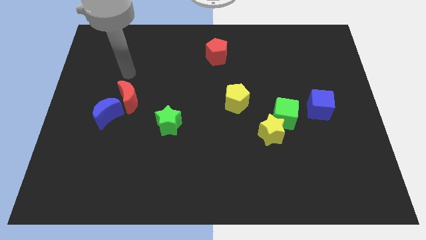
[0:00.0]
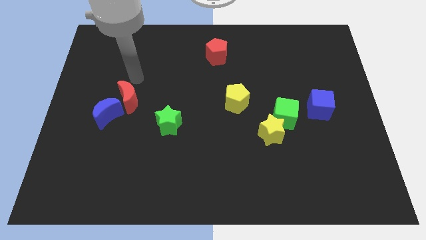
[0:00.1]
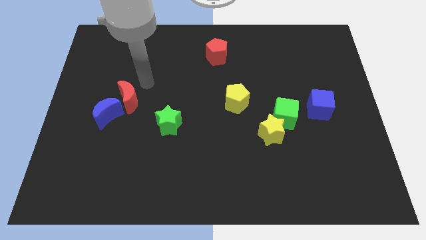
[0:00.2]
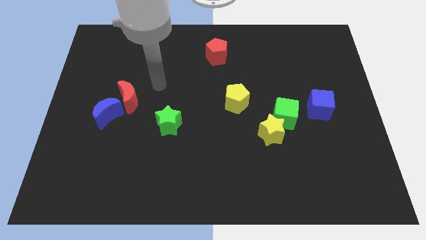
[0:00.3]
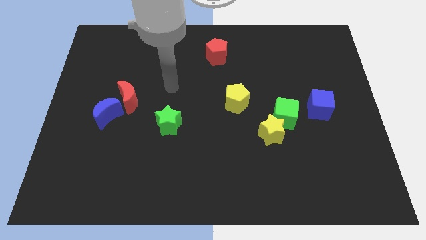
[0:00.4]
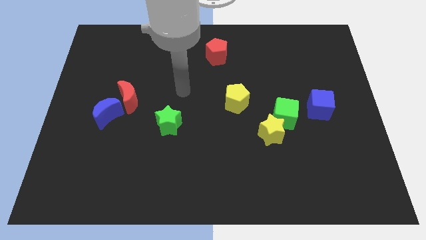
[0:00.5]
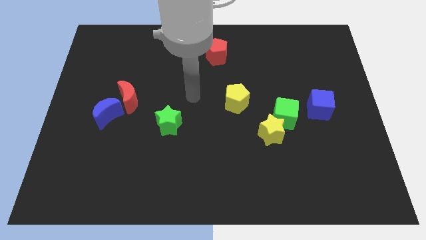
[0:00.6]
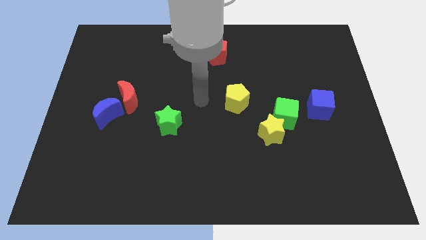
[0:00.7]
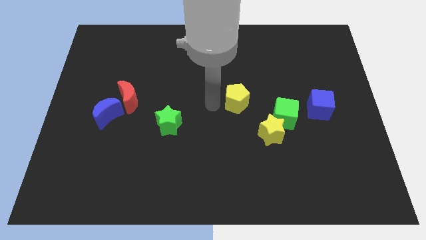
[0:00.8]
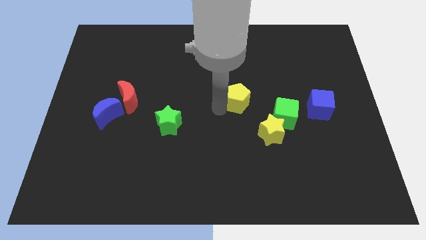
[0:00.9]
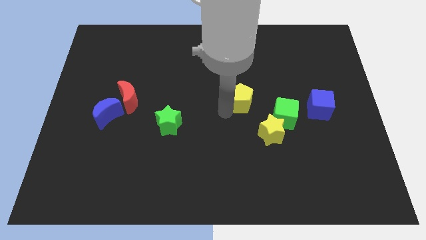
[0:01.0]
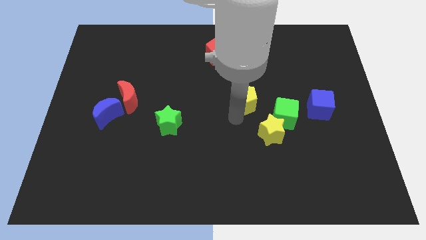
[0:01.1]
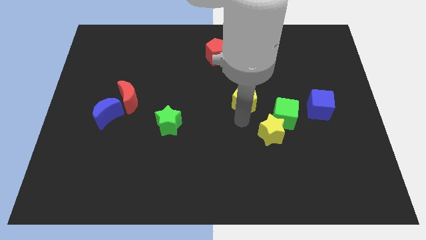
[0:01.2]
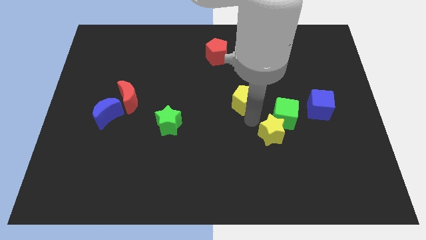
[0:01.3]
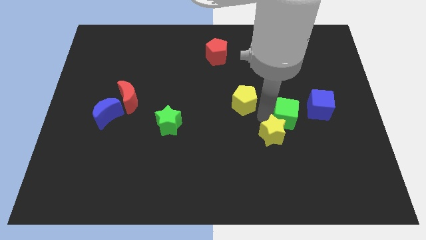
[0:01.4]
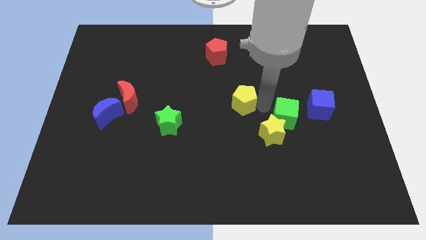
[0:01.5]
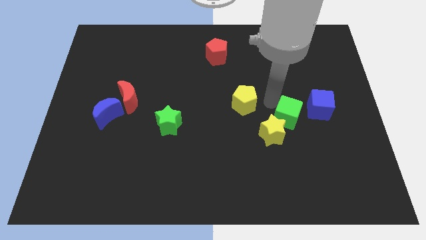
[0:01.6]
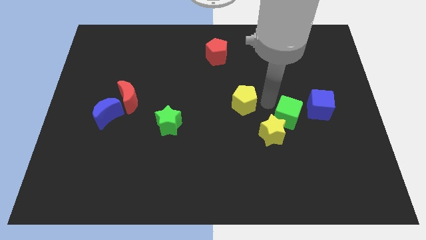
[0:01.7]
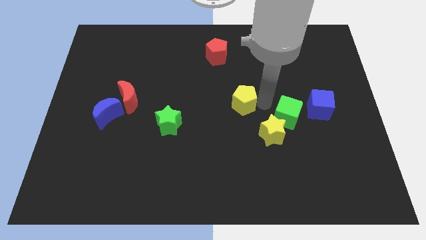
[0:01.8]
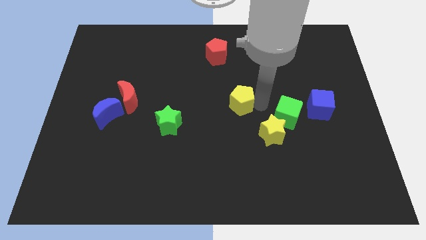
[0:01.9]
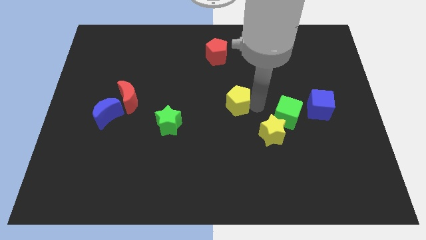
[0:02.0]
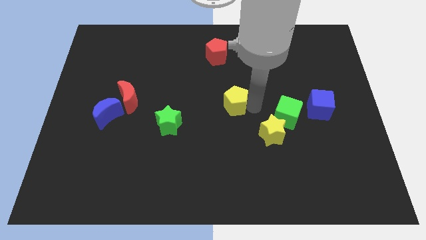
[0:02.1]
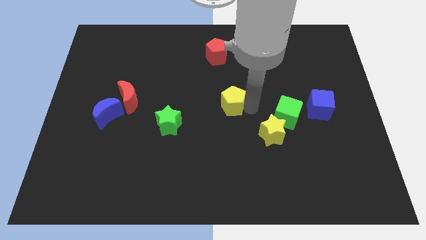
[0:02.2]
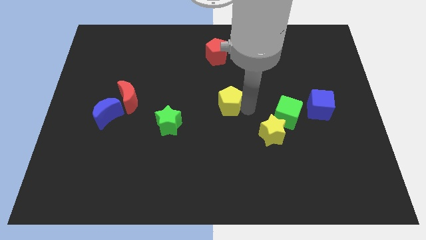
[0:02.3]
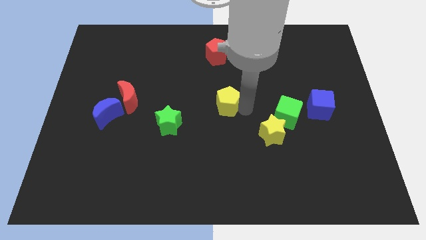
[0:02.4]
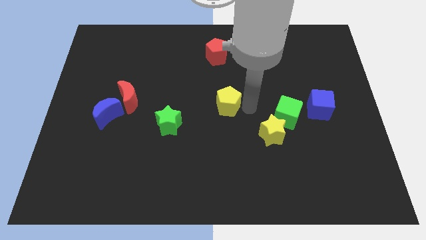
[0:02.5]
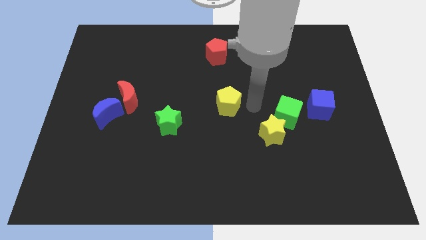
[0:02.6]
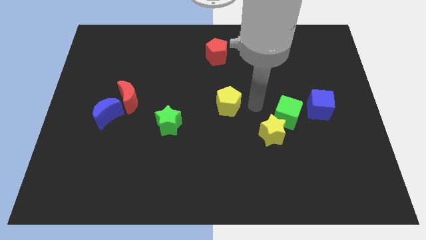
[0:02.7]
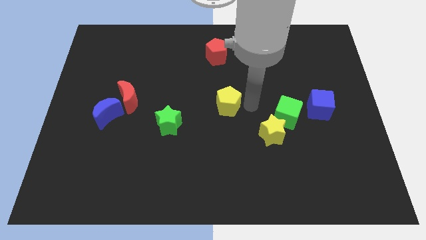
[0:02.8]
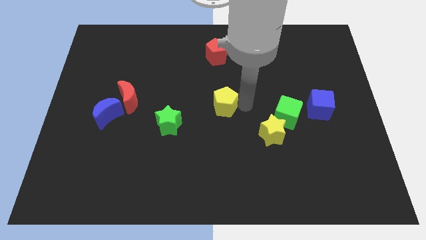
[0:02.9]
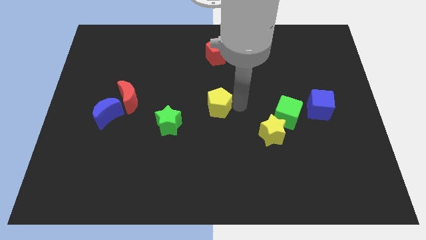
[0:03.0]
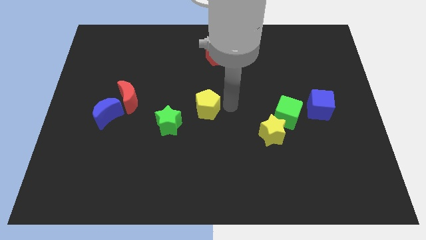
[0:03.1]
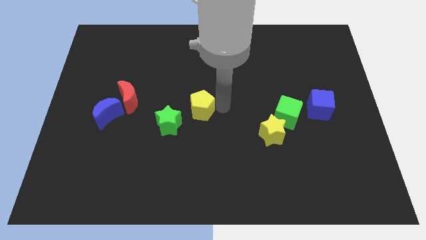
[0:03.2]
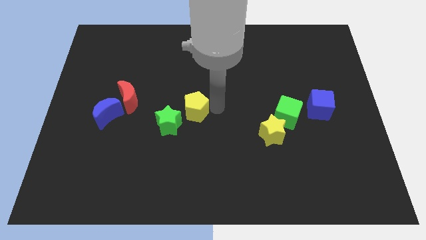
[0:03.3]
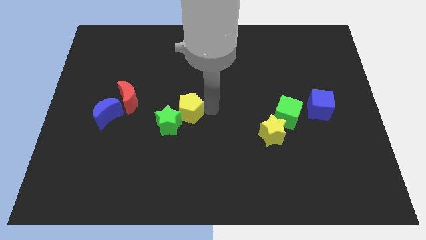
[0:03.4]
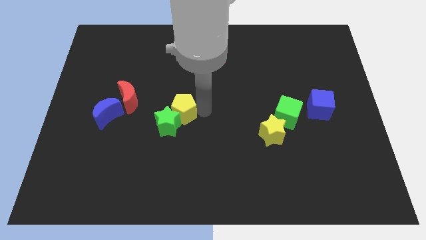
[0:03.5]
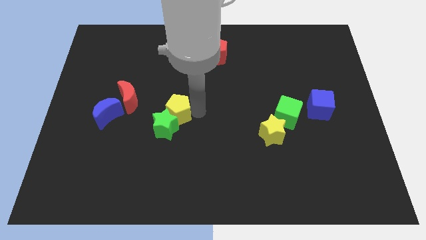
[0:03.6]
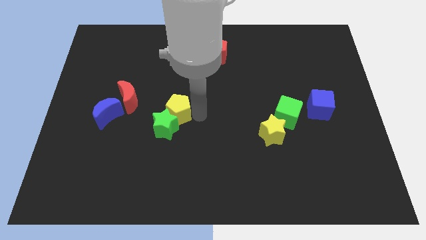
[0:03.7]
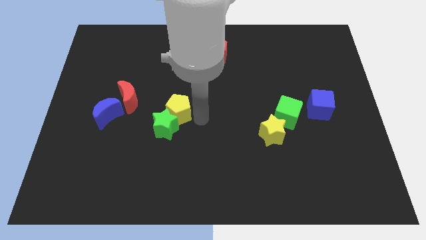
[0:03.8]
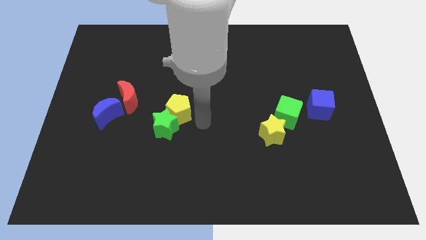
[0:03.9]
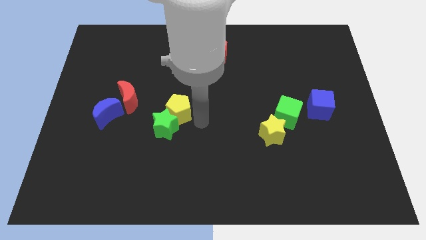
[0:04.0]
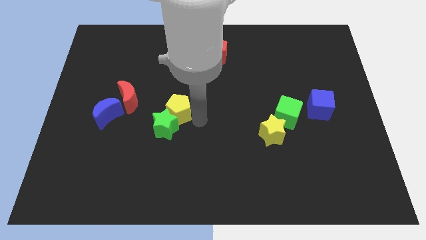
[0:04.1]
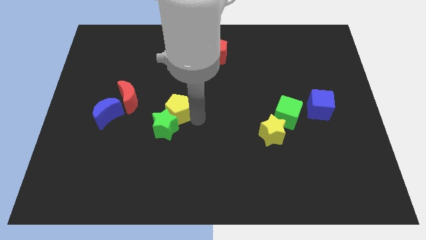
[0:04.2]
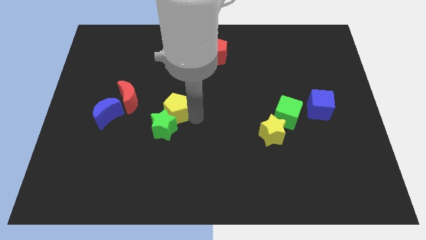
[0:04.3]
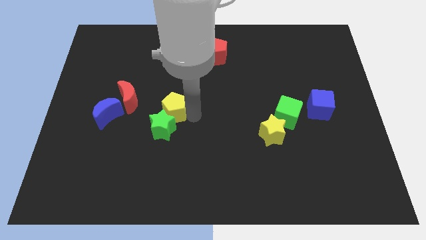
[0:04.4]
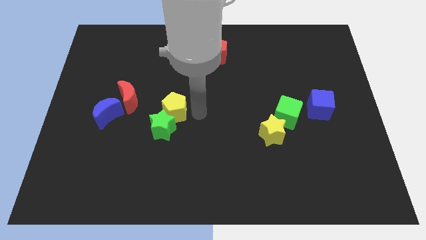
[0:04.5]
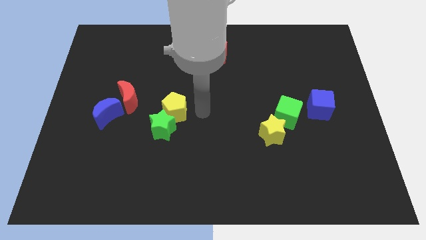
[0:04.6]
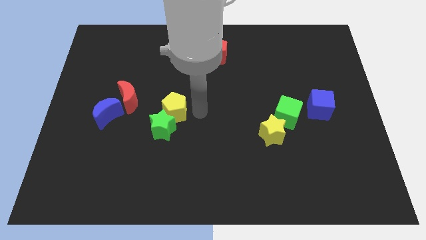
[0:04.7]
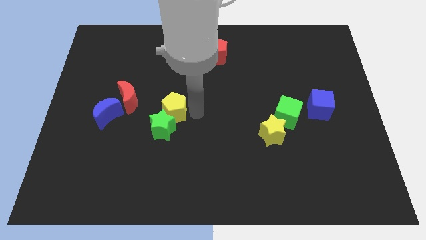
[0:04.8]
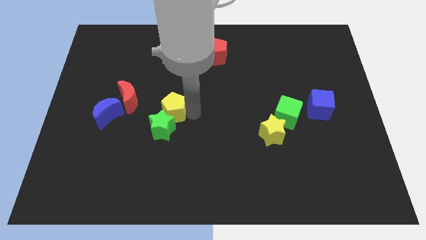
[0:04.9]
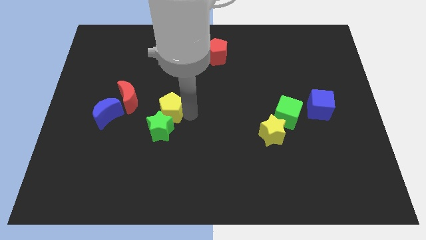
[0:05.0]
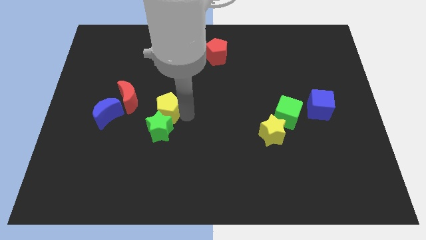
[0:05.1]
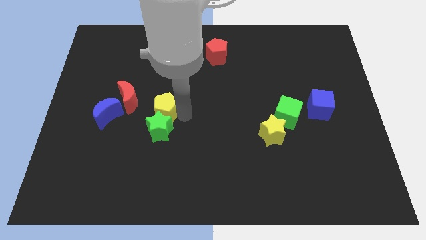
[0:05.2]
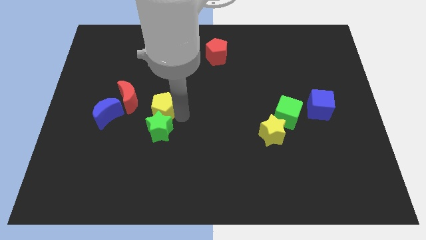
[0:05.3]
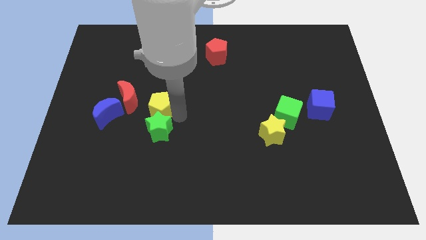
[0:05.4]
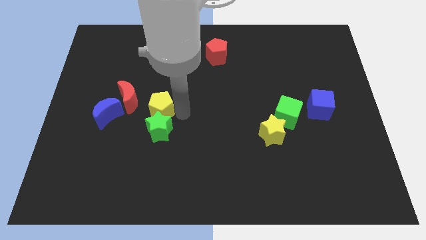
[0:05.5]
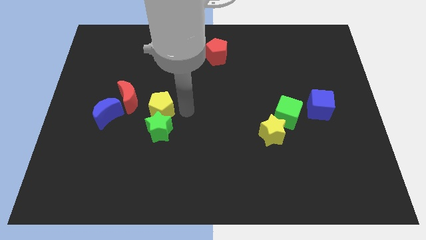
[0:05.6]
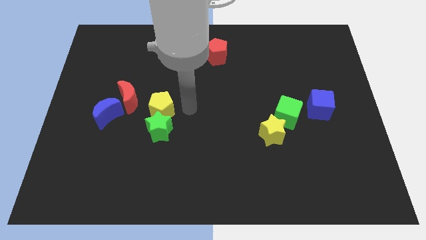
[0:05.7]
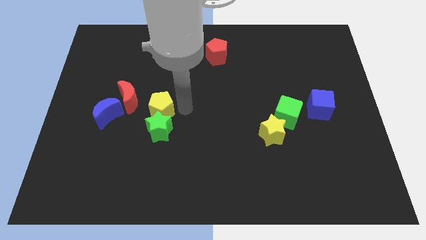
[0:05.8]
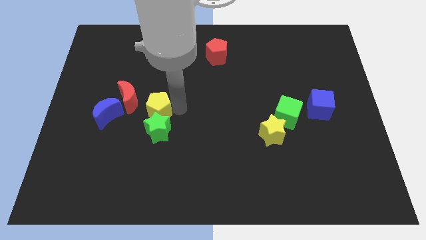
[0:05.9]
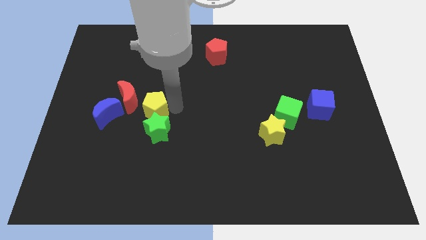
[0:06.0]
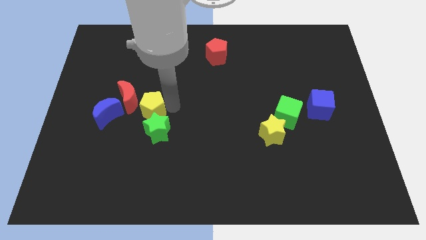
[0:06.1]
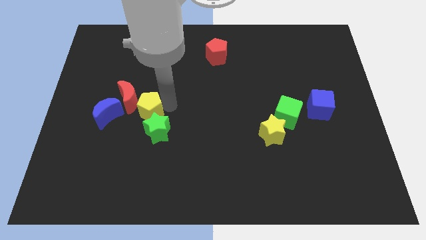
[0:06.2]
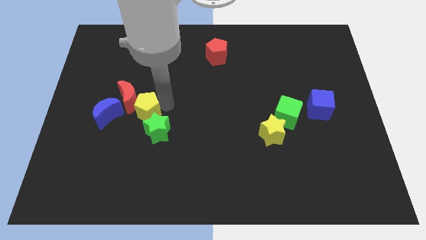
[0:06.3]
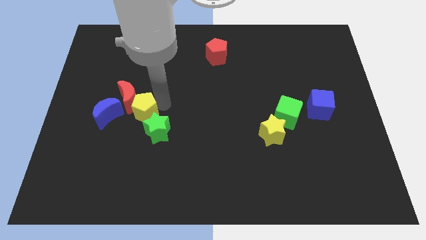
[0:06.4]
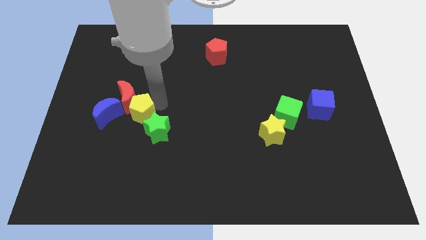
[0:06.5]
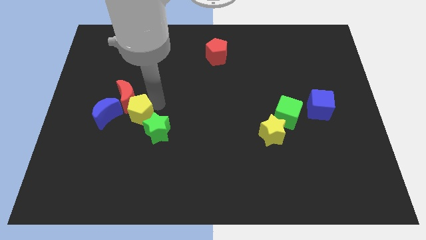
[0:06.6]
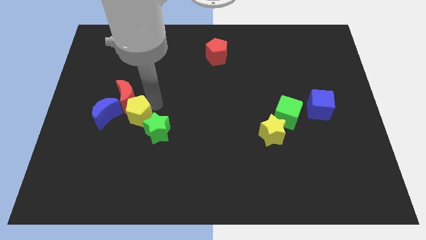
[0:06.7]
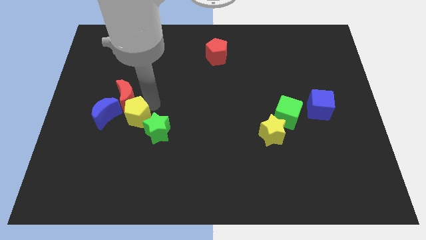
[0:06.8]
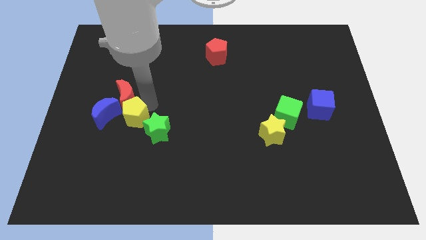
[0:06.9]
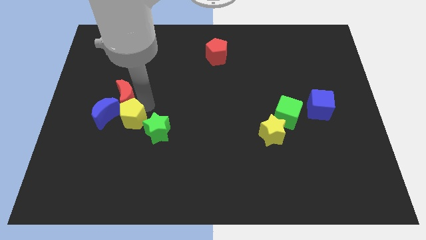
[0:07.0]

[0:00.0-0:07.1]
push the yellow pentagon close to the blue moon
